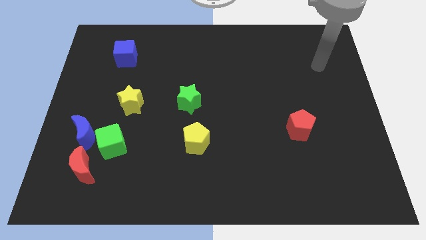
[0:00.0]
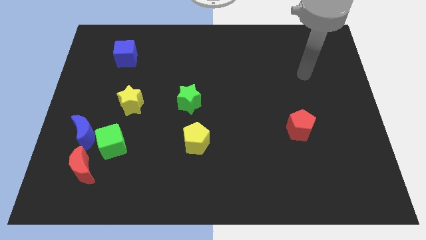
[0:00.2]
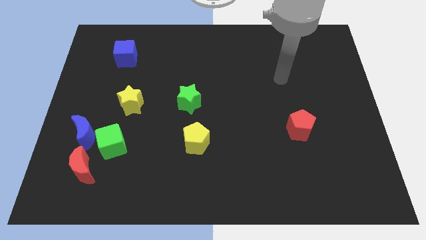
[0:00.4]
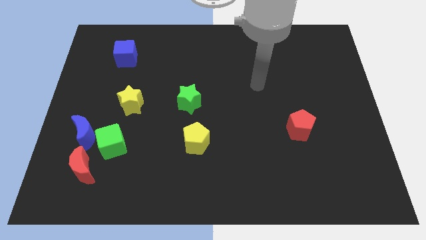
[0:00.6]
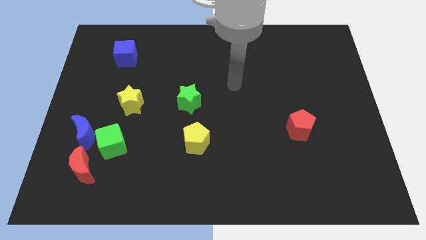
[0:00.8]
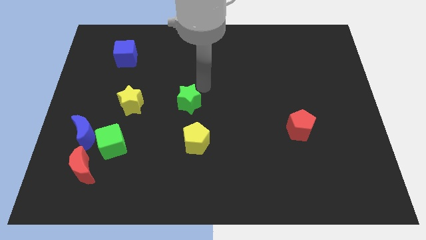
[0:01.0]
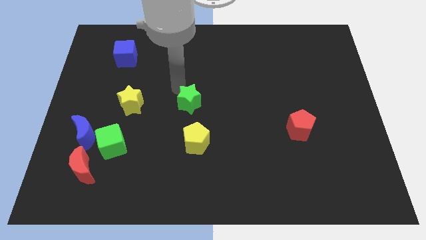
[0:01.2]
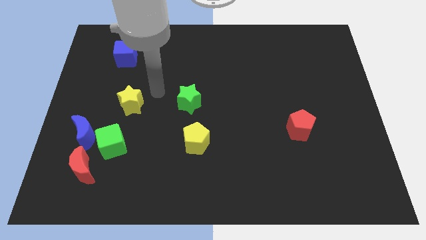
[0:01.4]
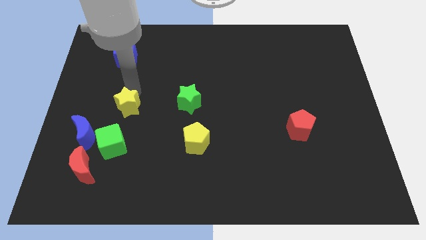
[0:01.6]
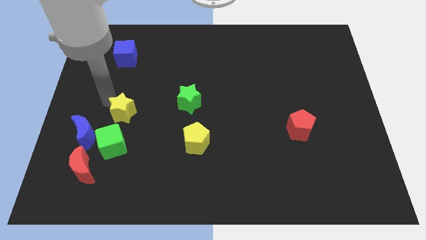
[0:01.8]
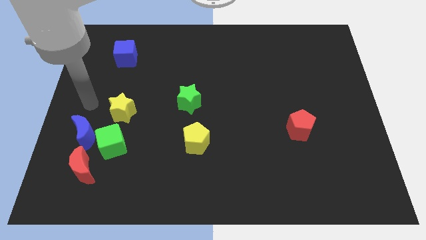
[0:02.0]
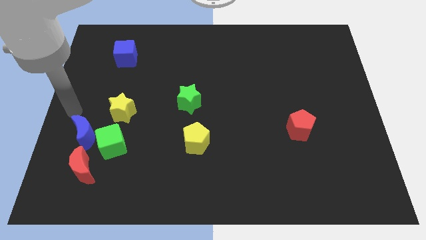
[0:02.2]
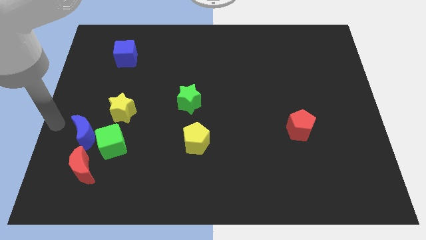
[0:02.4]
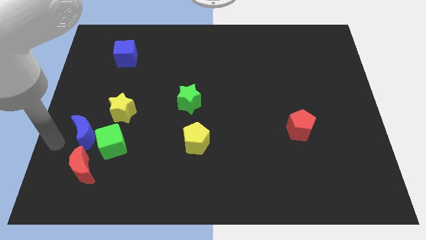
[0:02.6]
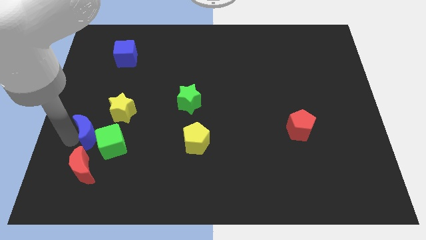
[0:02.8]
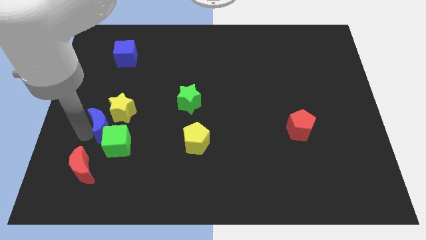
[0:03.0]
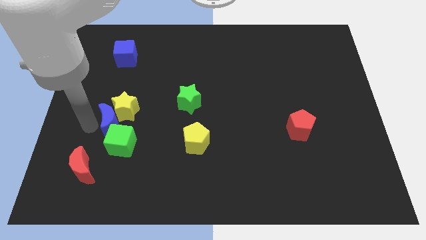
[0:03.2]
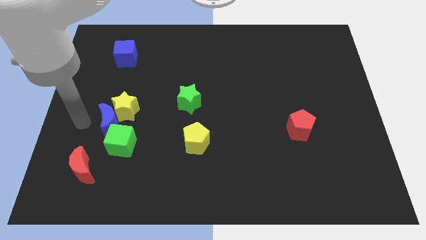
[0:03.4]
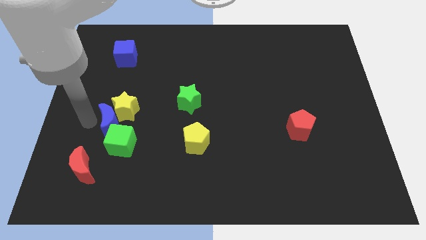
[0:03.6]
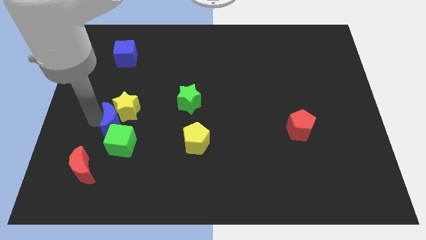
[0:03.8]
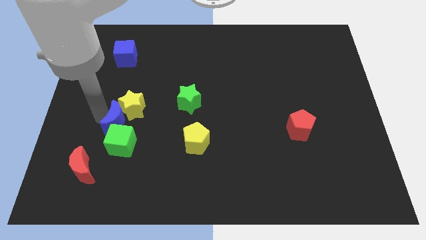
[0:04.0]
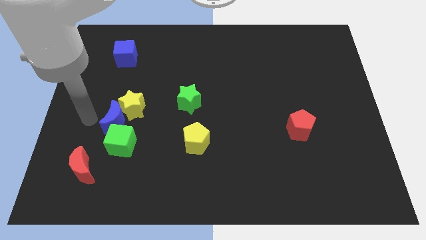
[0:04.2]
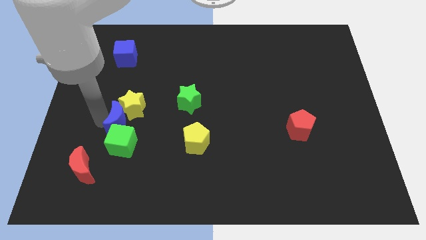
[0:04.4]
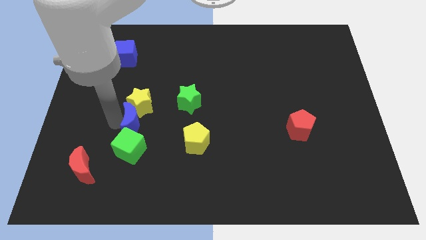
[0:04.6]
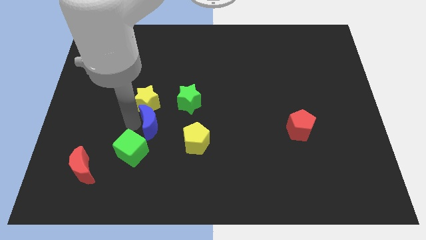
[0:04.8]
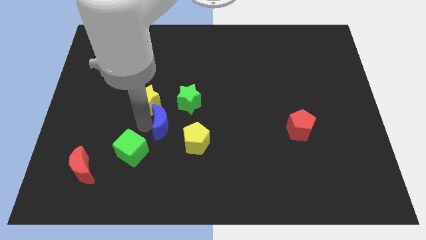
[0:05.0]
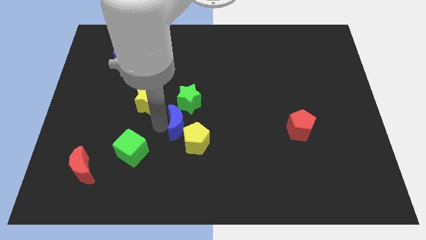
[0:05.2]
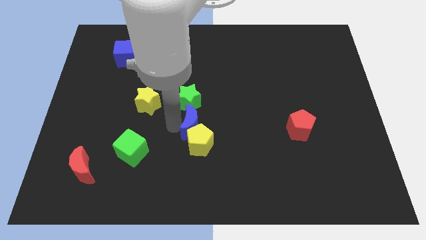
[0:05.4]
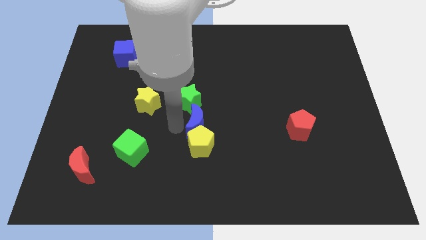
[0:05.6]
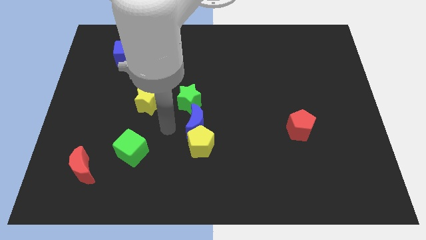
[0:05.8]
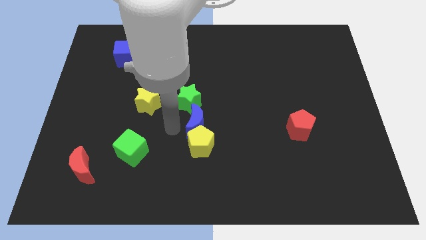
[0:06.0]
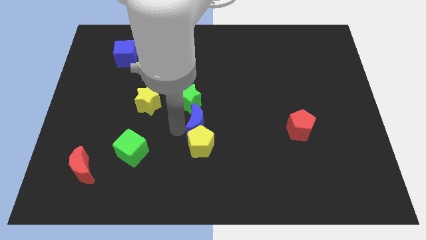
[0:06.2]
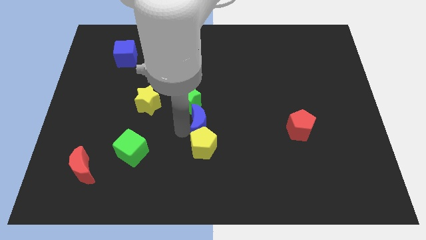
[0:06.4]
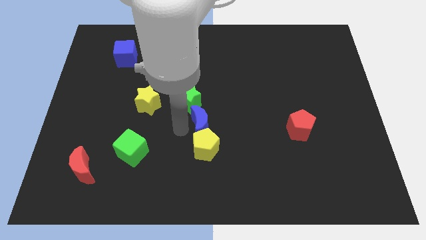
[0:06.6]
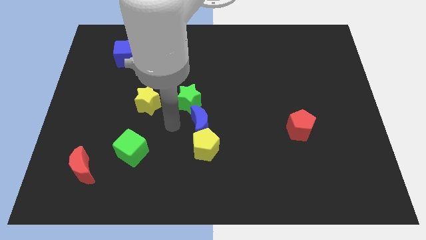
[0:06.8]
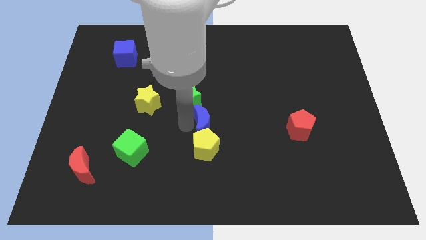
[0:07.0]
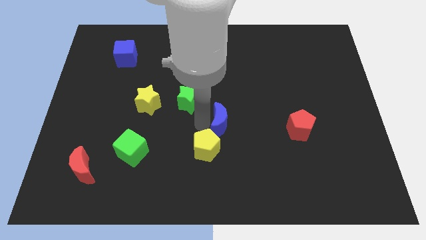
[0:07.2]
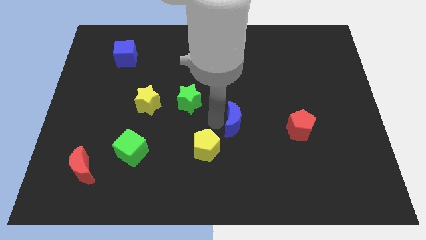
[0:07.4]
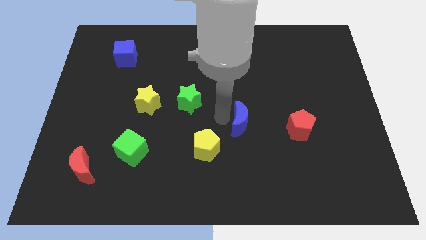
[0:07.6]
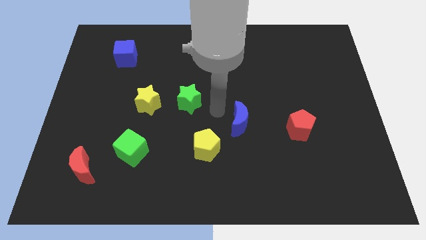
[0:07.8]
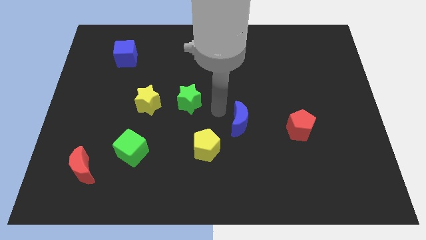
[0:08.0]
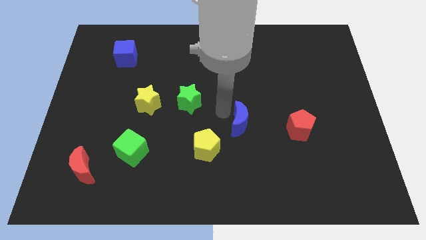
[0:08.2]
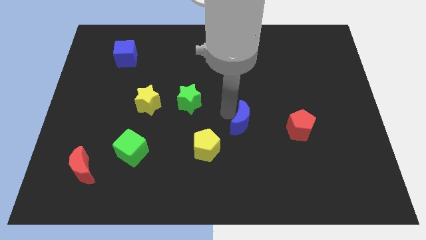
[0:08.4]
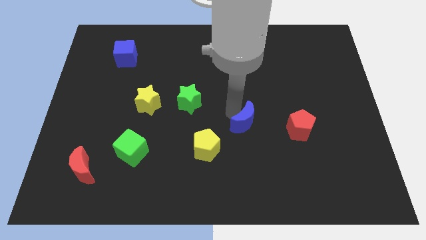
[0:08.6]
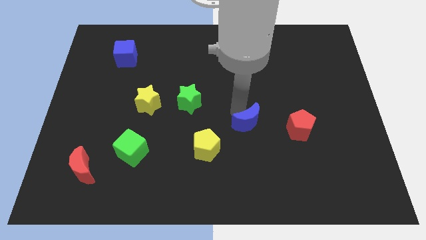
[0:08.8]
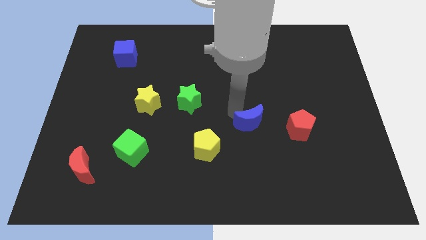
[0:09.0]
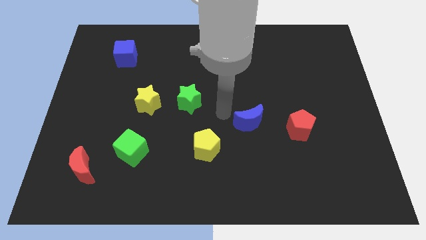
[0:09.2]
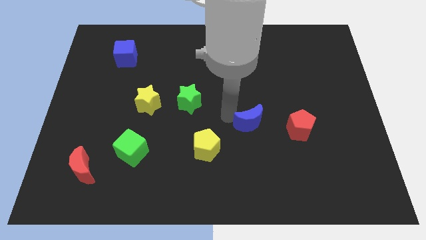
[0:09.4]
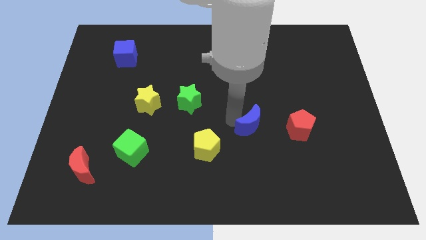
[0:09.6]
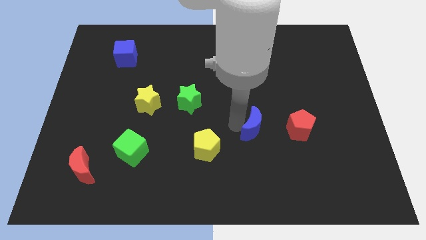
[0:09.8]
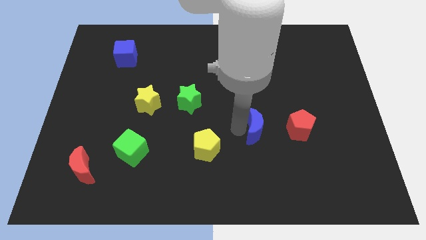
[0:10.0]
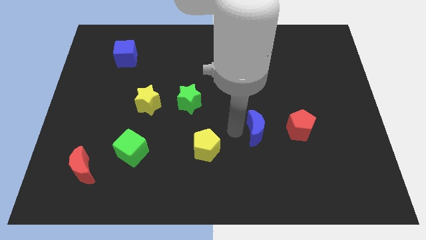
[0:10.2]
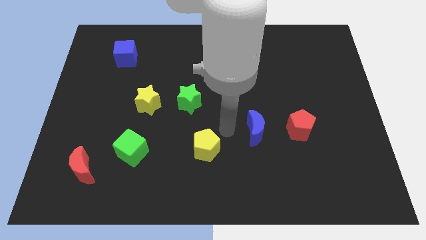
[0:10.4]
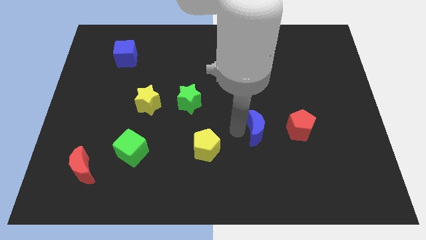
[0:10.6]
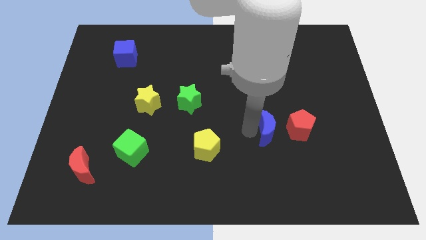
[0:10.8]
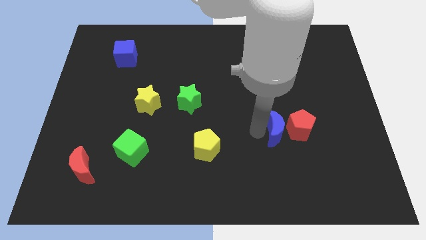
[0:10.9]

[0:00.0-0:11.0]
move the blue moon next to the red pentagon

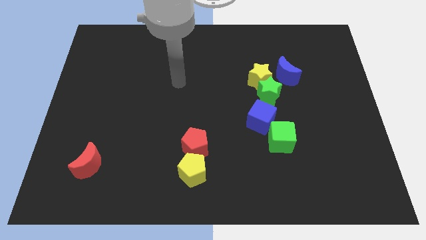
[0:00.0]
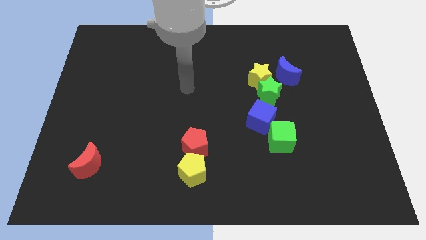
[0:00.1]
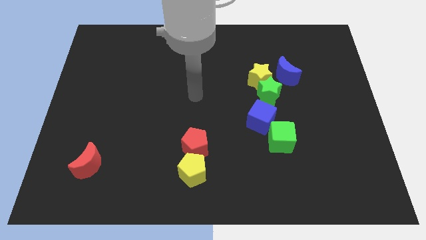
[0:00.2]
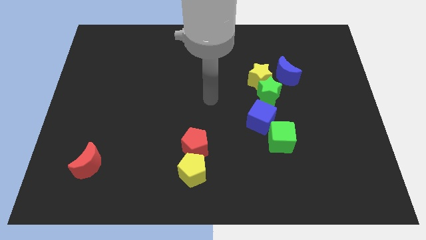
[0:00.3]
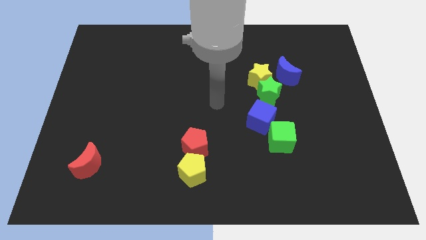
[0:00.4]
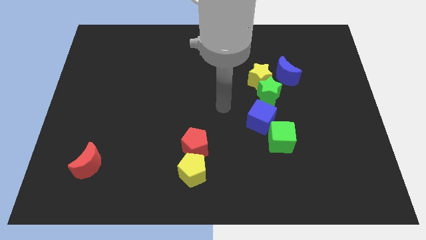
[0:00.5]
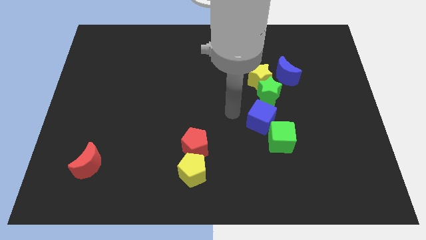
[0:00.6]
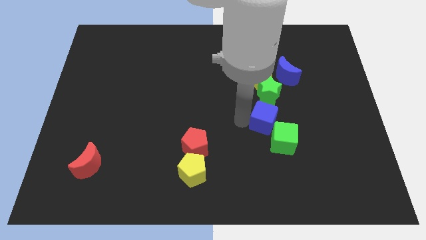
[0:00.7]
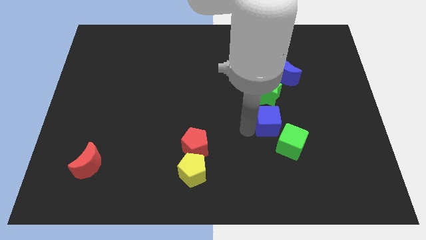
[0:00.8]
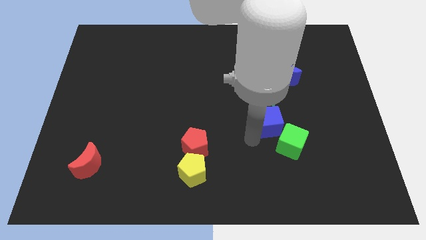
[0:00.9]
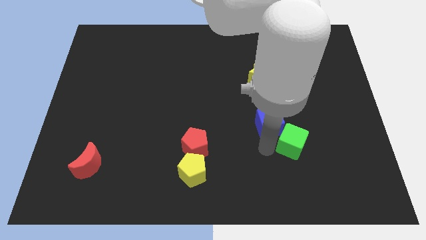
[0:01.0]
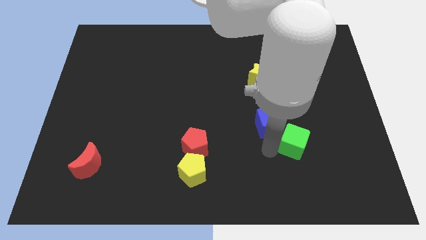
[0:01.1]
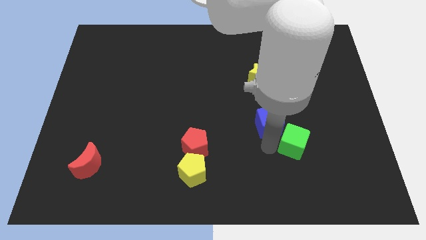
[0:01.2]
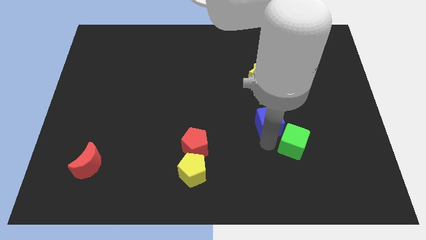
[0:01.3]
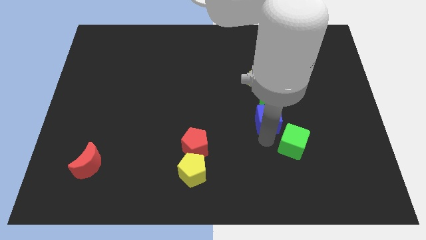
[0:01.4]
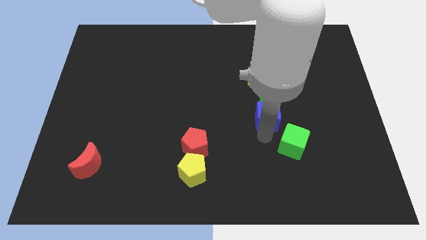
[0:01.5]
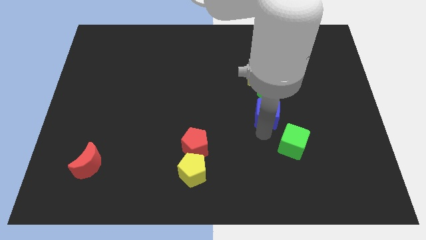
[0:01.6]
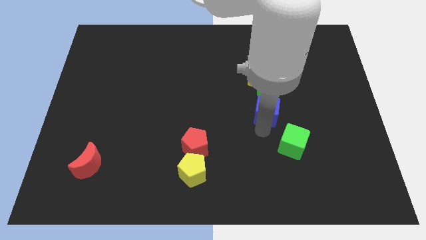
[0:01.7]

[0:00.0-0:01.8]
slide the blue cube to the green star

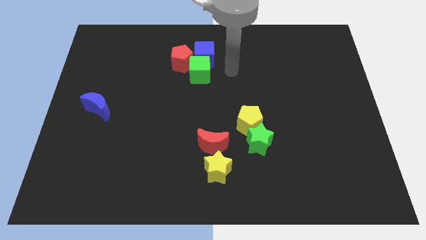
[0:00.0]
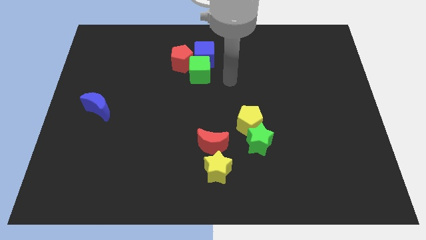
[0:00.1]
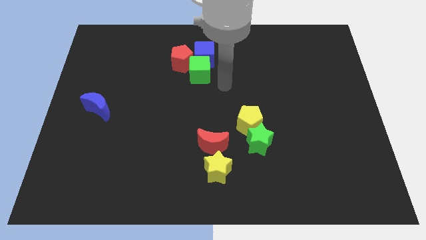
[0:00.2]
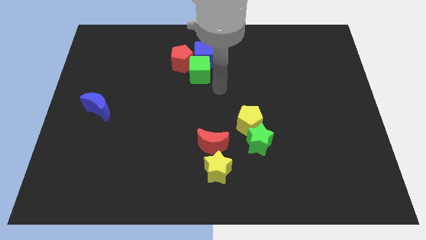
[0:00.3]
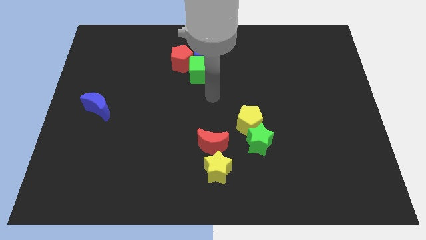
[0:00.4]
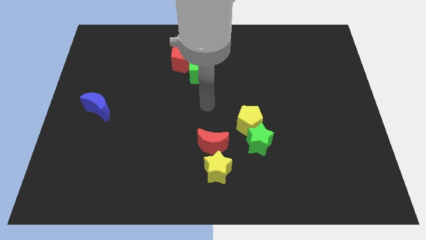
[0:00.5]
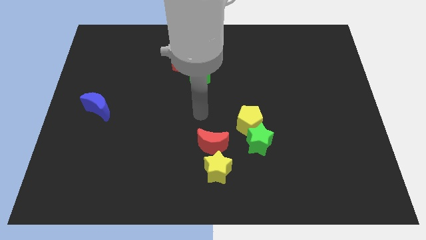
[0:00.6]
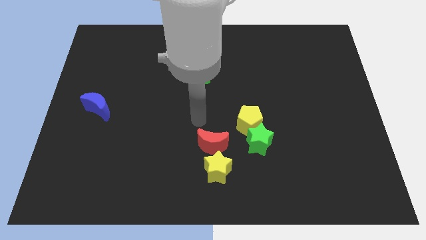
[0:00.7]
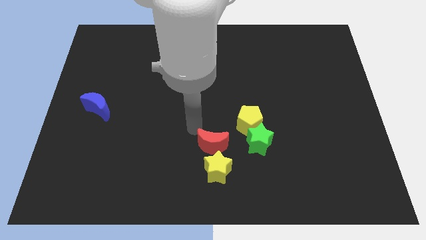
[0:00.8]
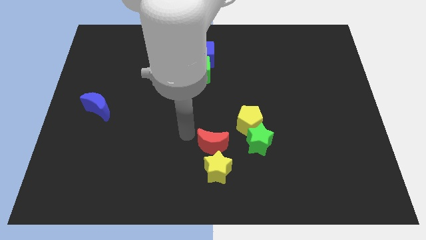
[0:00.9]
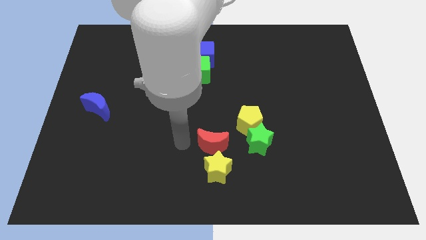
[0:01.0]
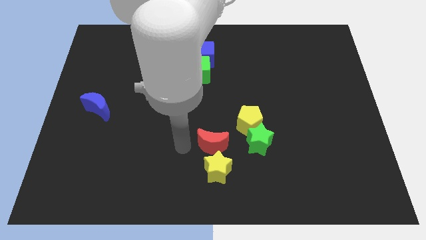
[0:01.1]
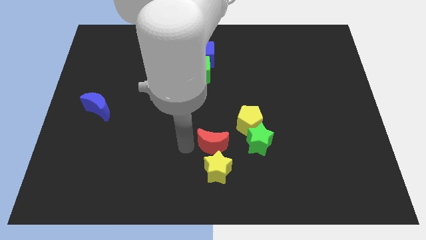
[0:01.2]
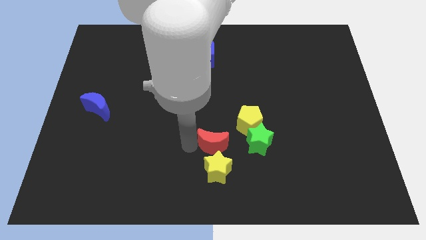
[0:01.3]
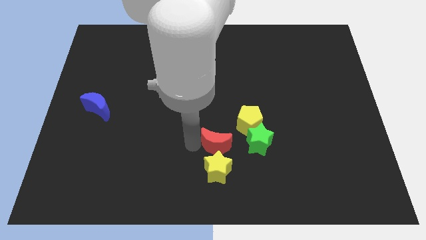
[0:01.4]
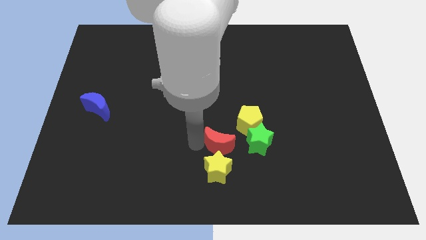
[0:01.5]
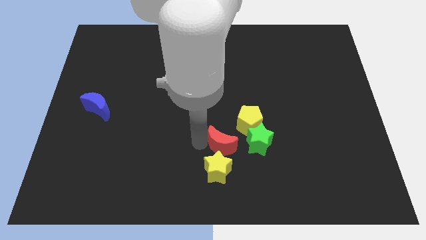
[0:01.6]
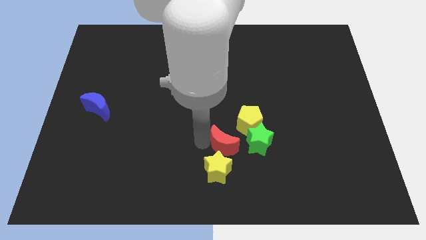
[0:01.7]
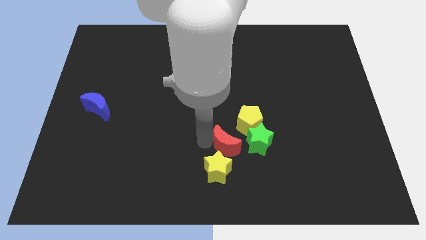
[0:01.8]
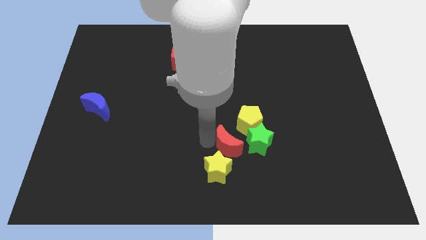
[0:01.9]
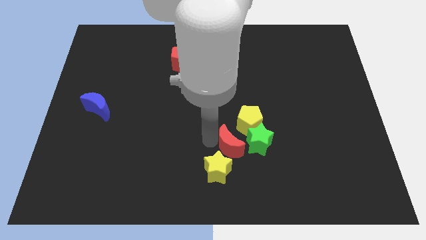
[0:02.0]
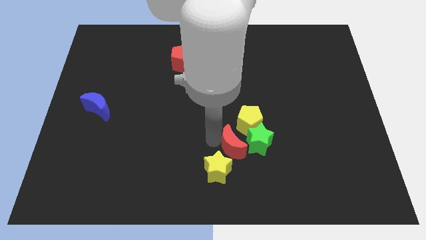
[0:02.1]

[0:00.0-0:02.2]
move the red moon to the green star
